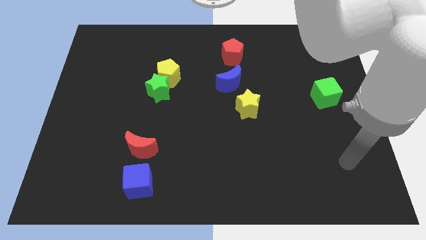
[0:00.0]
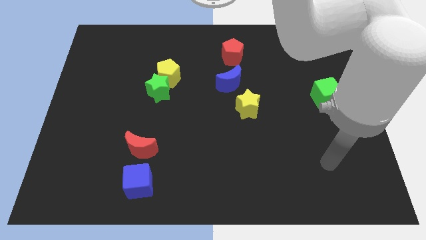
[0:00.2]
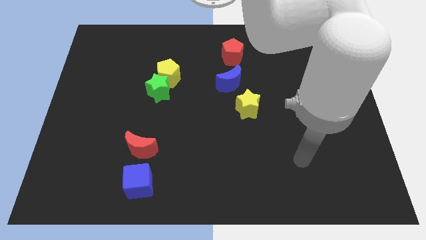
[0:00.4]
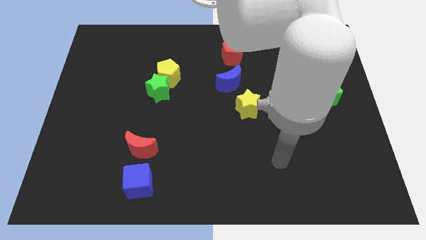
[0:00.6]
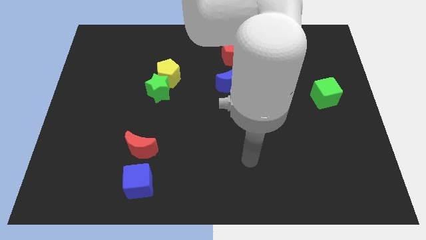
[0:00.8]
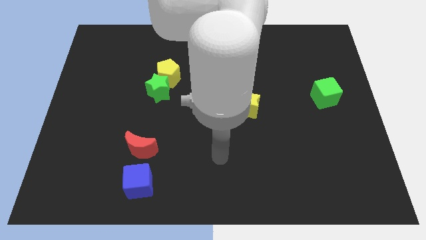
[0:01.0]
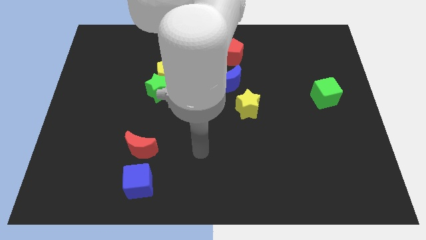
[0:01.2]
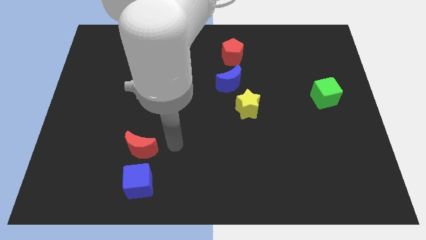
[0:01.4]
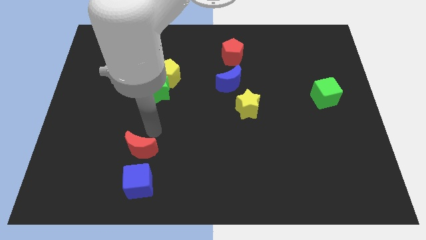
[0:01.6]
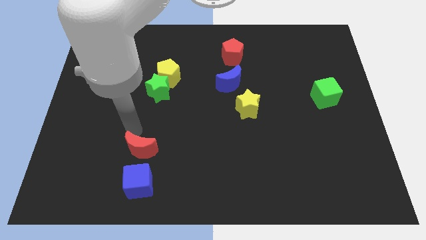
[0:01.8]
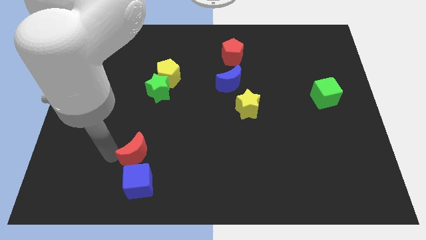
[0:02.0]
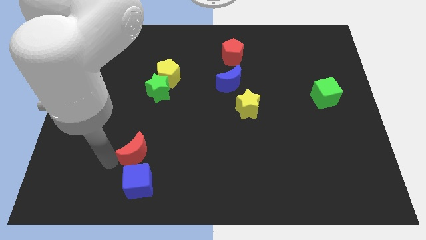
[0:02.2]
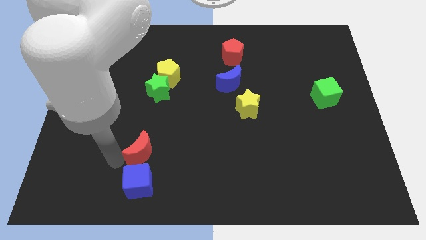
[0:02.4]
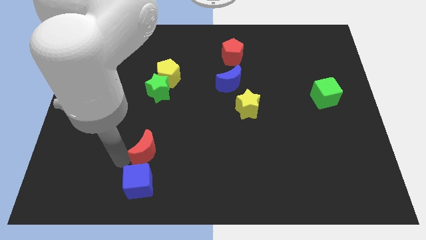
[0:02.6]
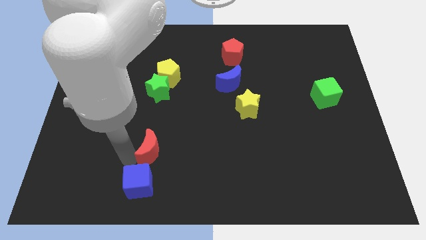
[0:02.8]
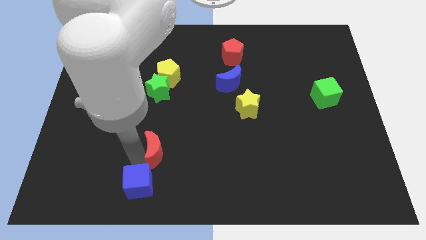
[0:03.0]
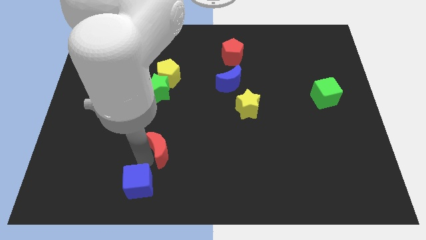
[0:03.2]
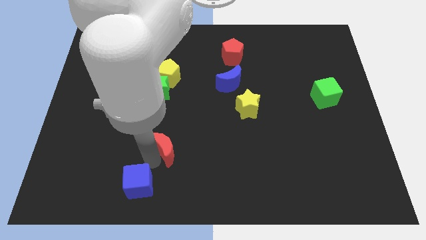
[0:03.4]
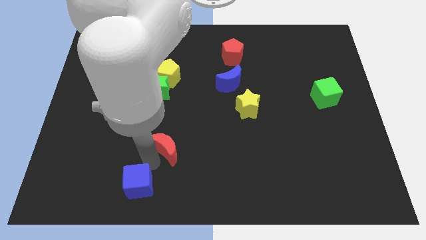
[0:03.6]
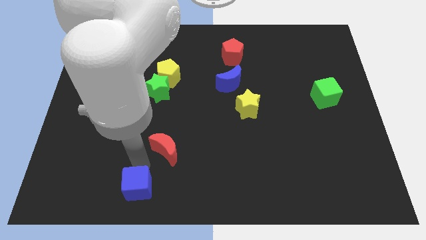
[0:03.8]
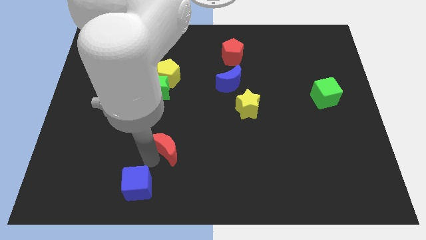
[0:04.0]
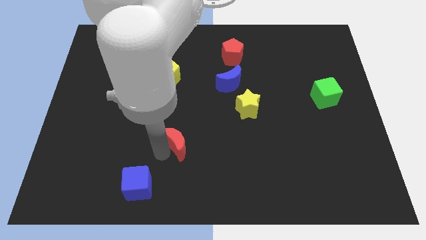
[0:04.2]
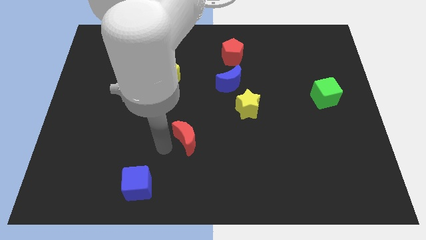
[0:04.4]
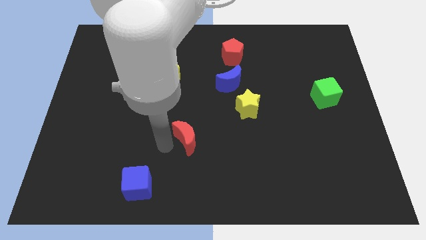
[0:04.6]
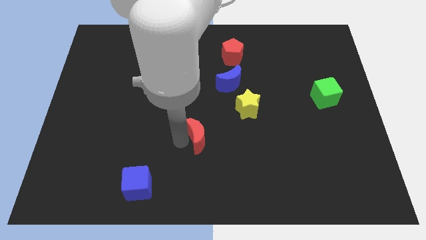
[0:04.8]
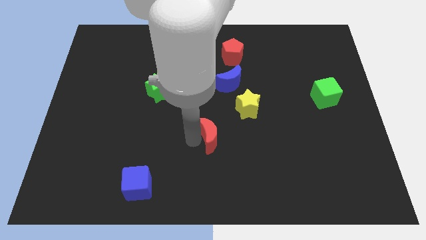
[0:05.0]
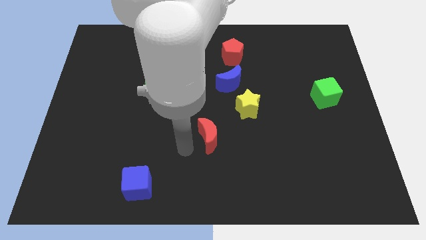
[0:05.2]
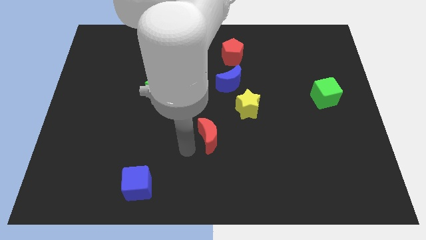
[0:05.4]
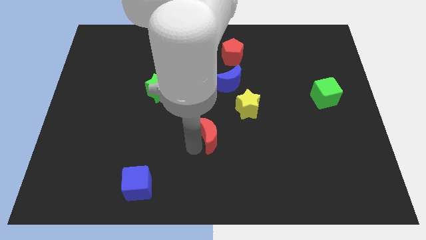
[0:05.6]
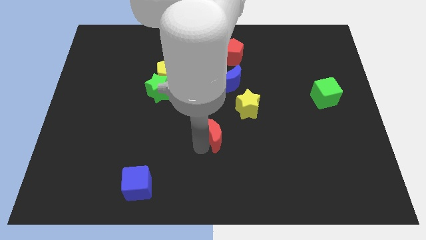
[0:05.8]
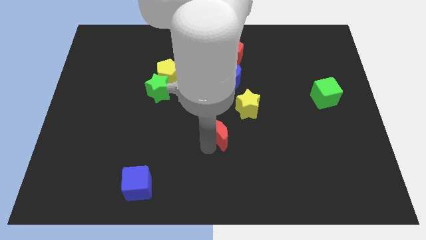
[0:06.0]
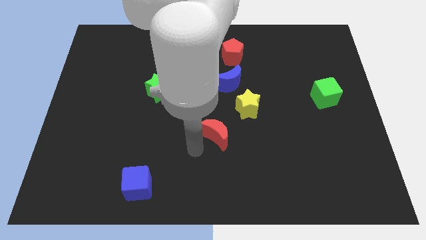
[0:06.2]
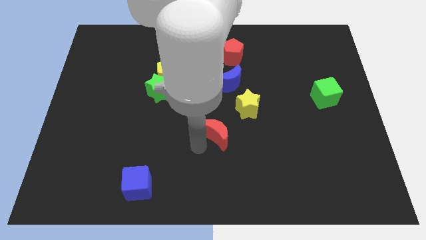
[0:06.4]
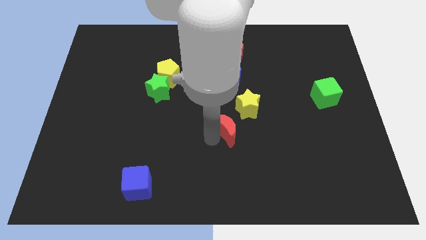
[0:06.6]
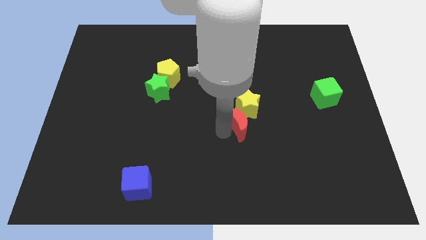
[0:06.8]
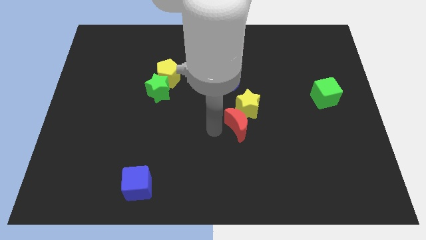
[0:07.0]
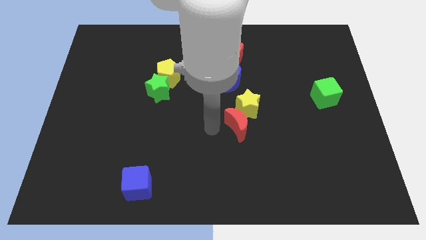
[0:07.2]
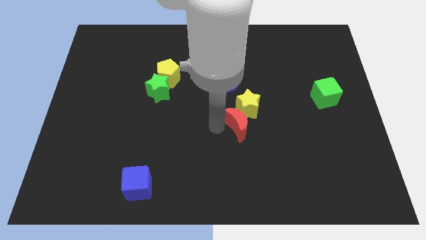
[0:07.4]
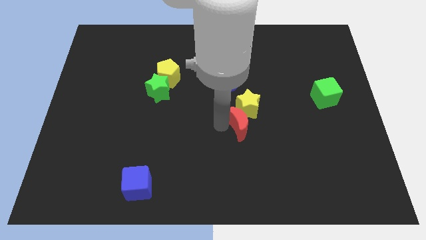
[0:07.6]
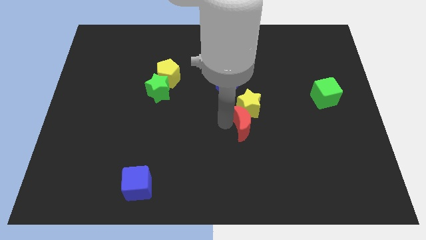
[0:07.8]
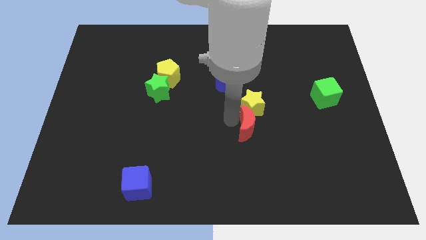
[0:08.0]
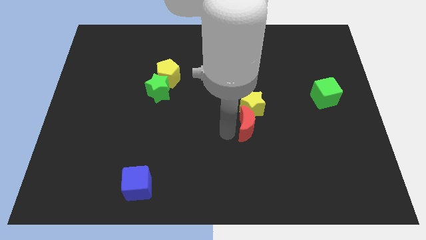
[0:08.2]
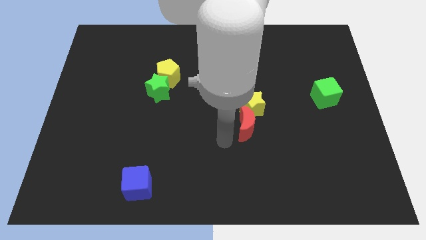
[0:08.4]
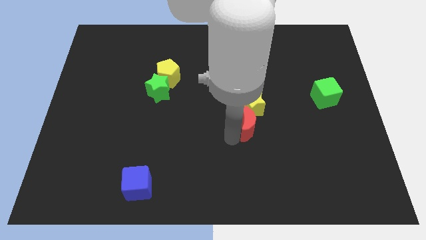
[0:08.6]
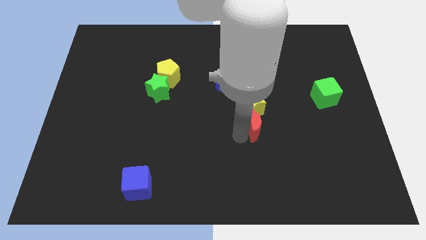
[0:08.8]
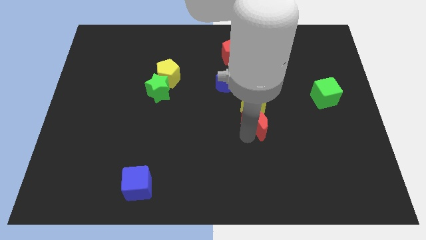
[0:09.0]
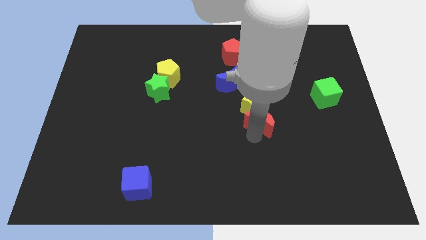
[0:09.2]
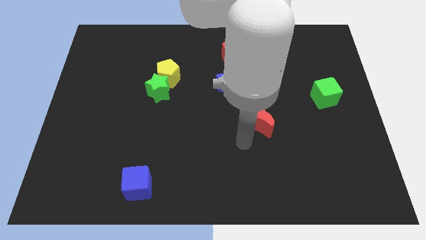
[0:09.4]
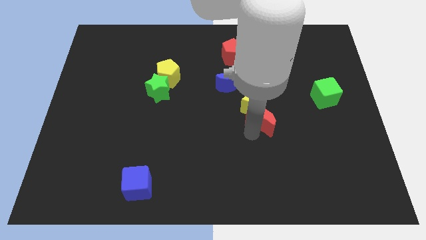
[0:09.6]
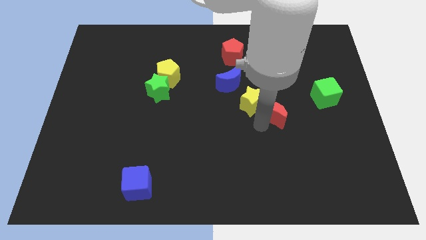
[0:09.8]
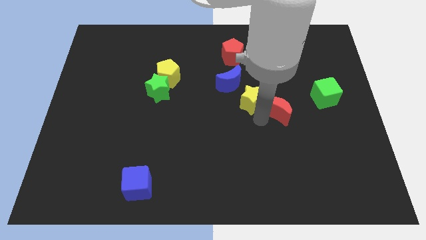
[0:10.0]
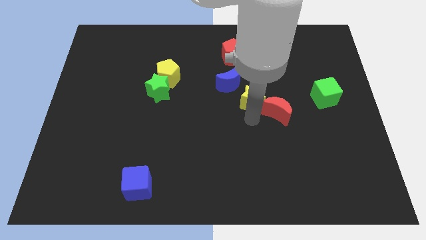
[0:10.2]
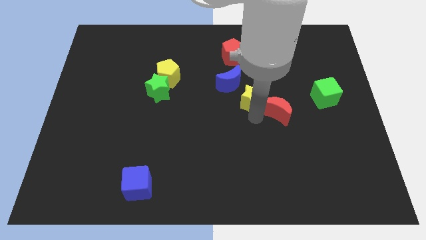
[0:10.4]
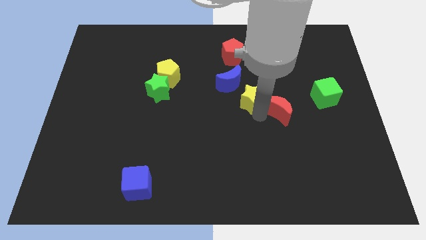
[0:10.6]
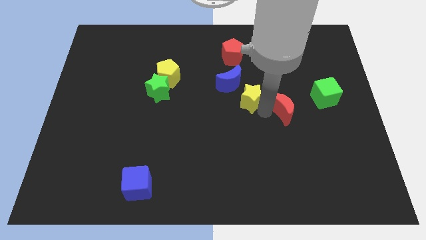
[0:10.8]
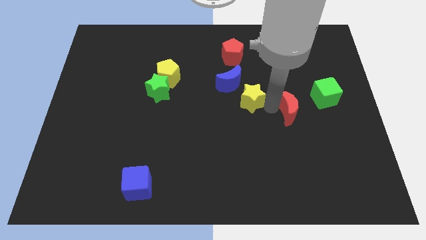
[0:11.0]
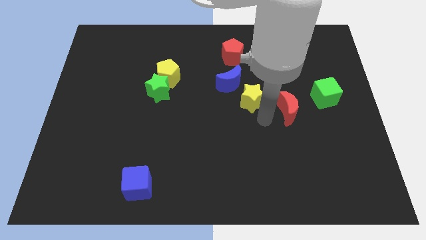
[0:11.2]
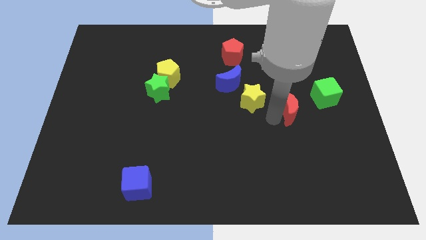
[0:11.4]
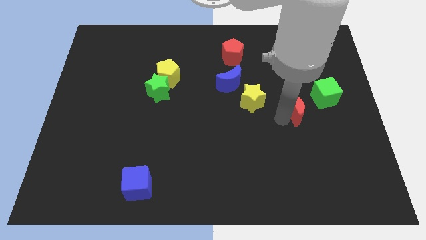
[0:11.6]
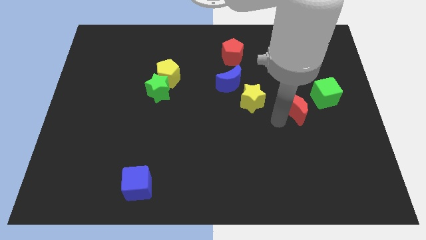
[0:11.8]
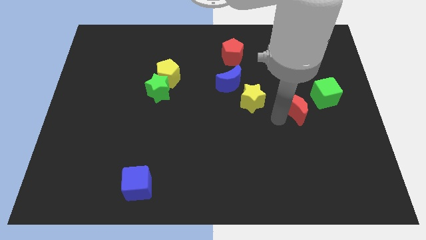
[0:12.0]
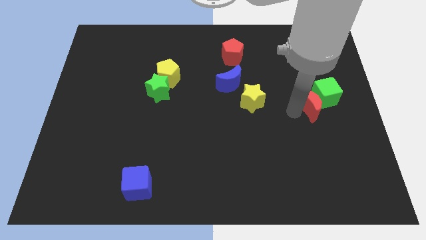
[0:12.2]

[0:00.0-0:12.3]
move the red moon towards the green cube

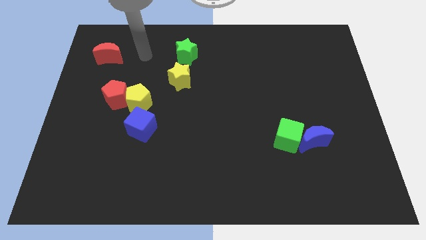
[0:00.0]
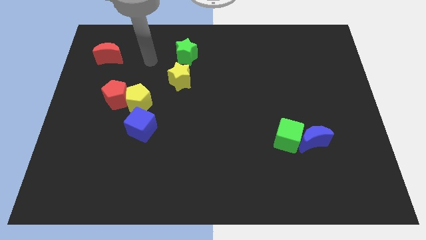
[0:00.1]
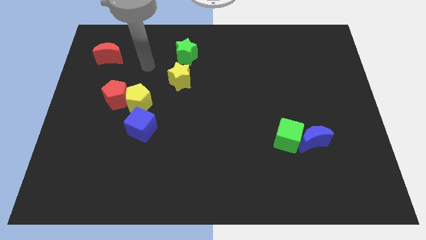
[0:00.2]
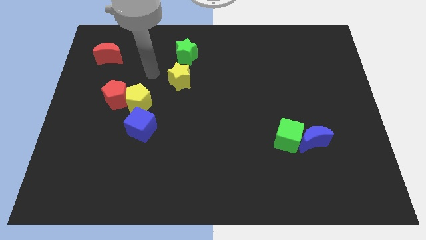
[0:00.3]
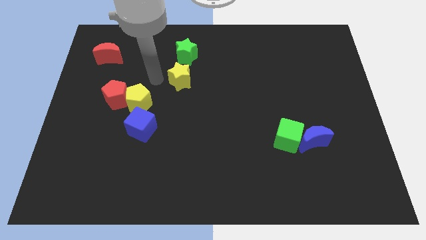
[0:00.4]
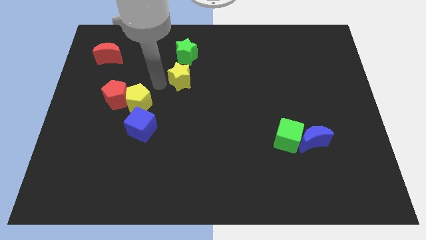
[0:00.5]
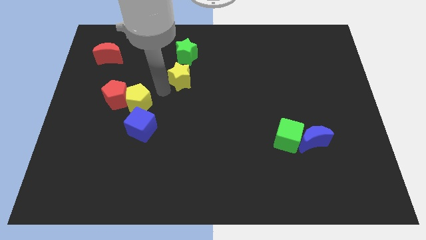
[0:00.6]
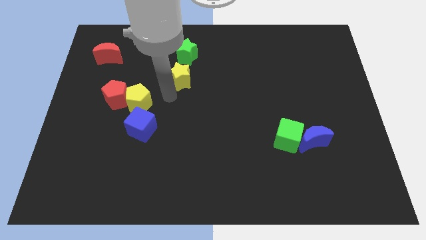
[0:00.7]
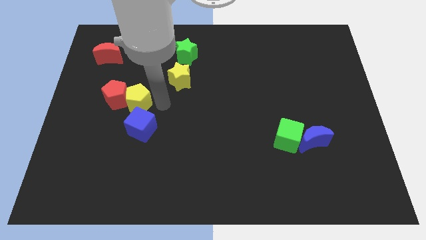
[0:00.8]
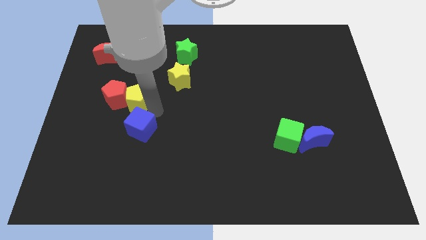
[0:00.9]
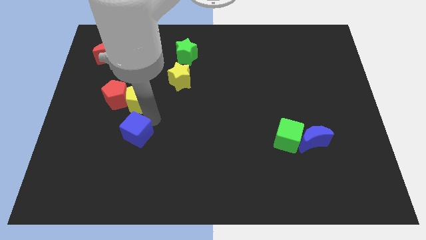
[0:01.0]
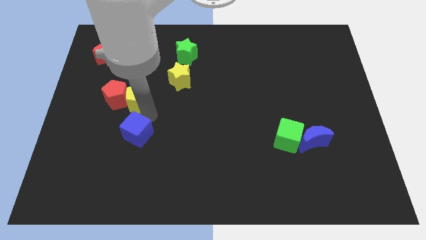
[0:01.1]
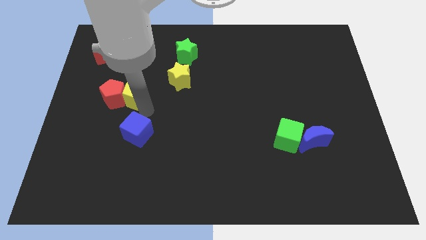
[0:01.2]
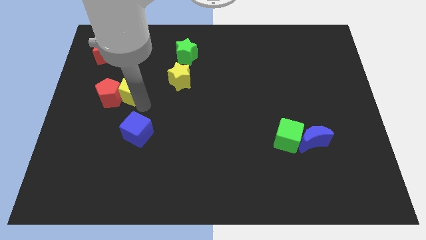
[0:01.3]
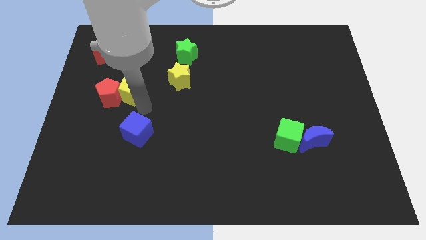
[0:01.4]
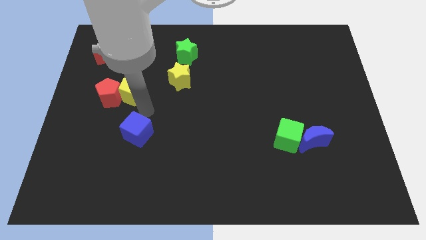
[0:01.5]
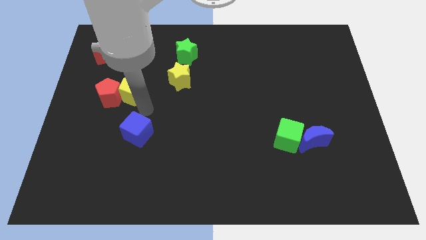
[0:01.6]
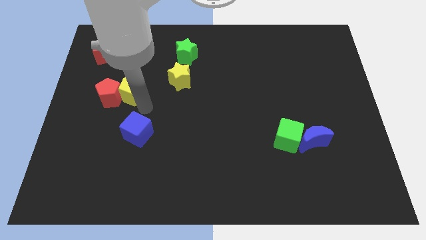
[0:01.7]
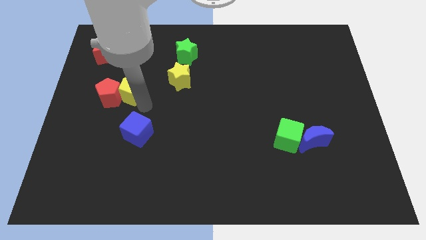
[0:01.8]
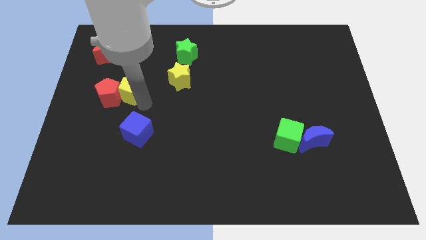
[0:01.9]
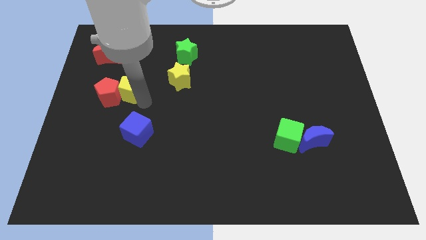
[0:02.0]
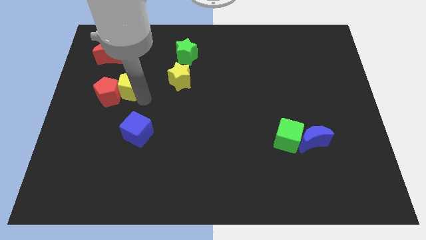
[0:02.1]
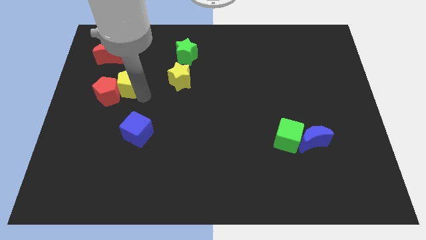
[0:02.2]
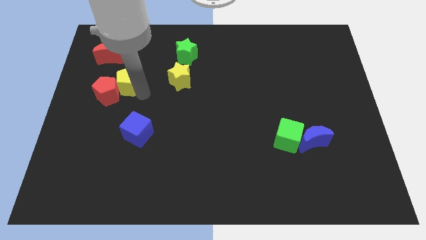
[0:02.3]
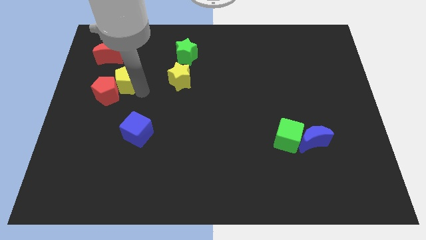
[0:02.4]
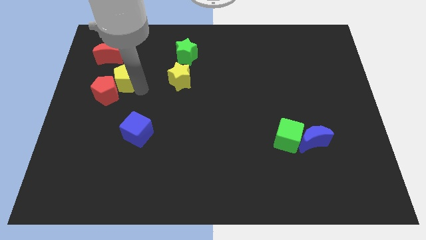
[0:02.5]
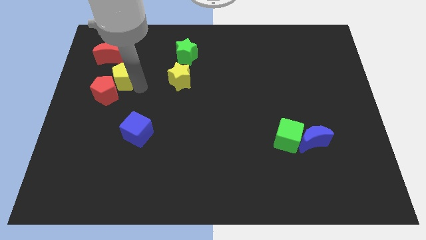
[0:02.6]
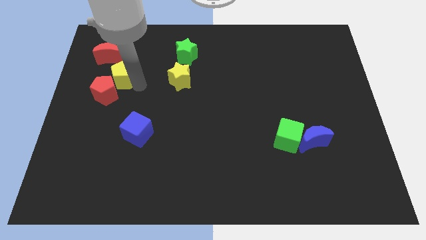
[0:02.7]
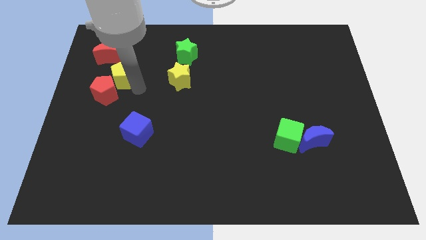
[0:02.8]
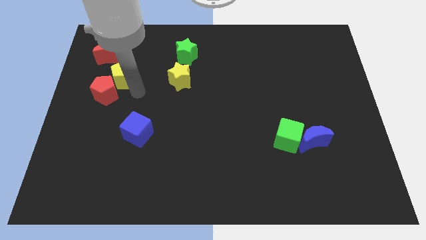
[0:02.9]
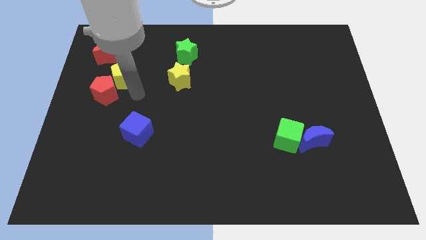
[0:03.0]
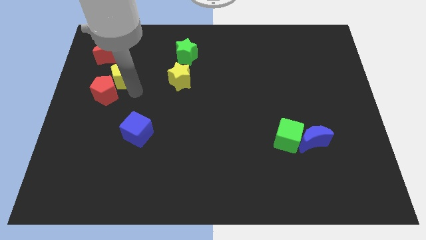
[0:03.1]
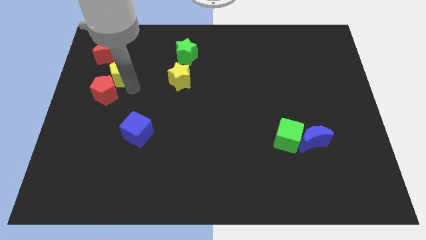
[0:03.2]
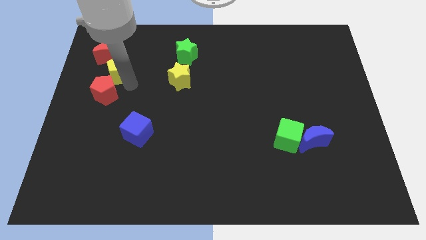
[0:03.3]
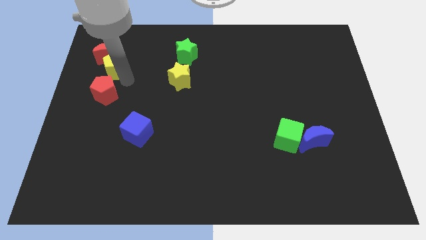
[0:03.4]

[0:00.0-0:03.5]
move the yellow pentagon to the red moon
